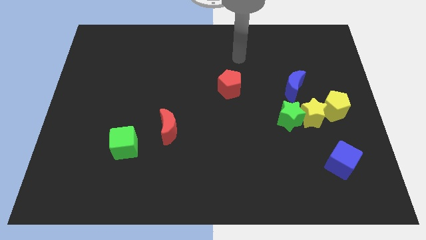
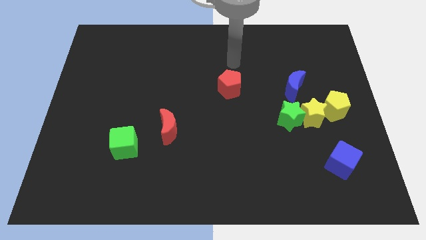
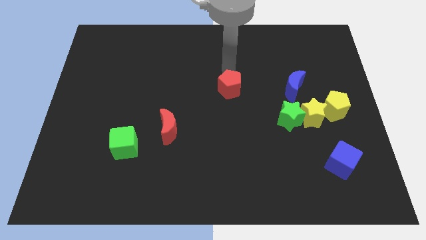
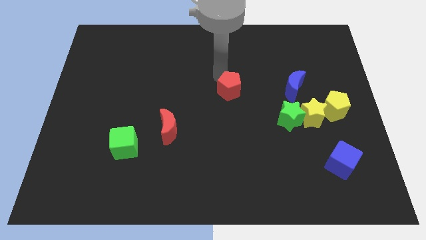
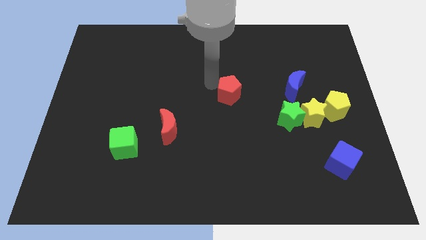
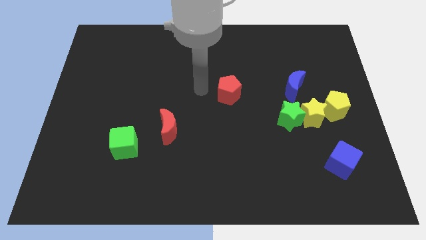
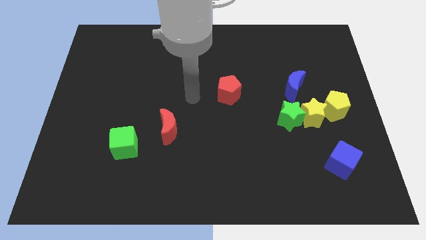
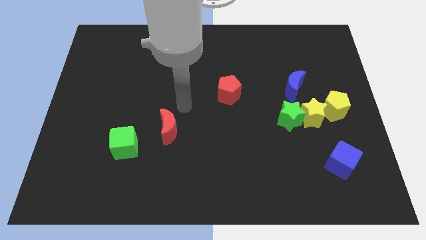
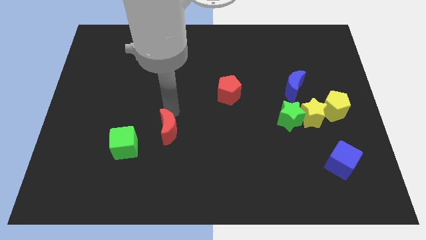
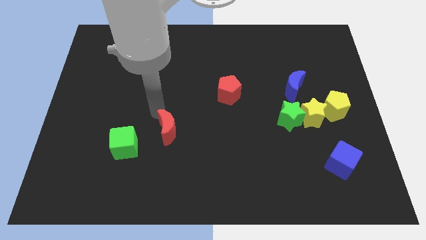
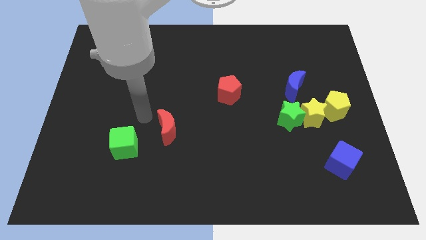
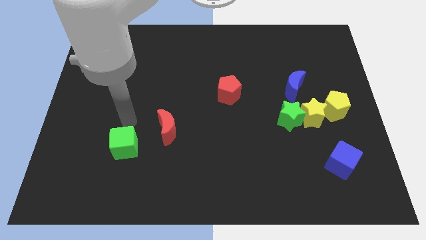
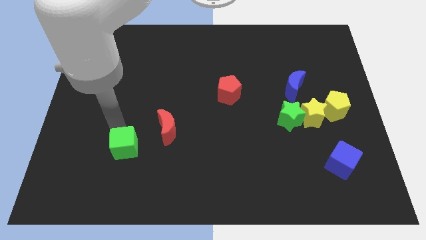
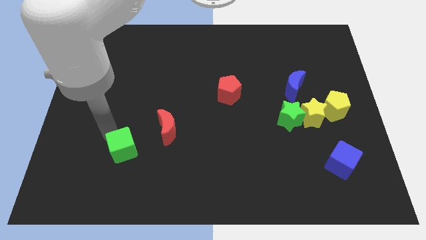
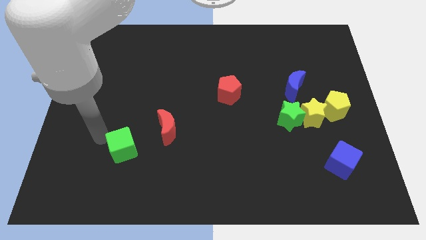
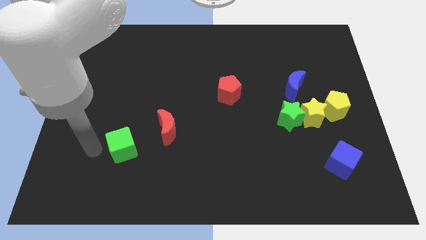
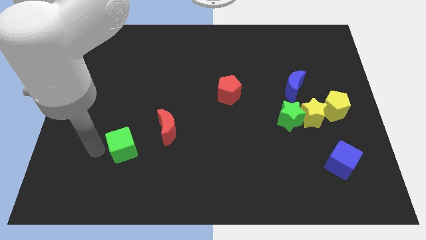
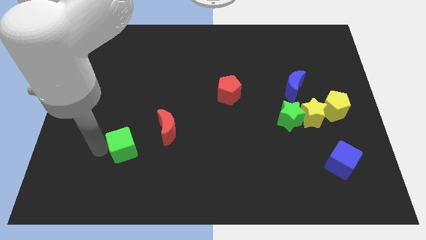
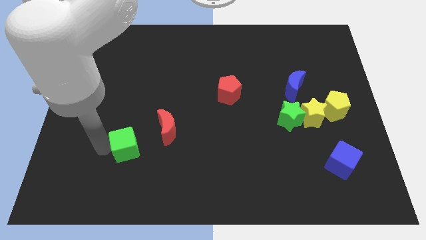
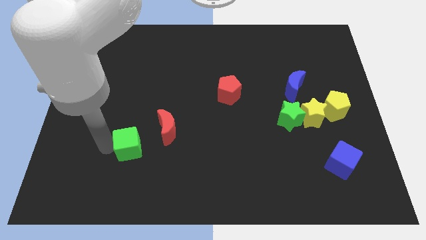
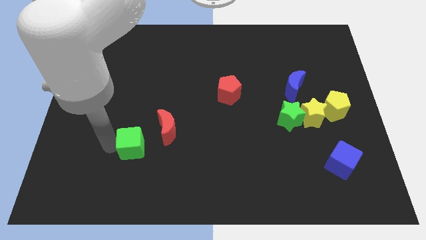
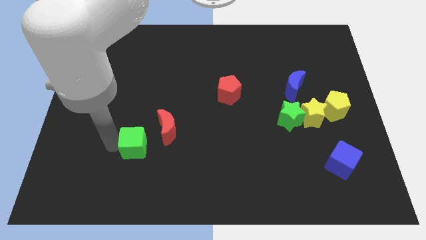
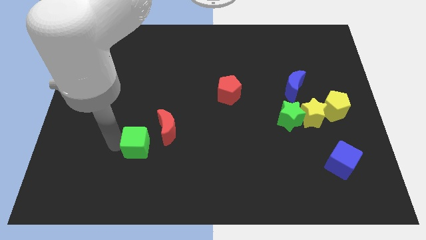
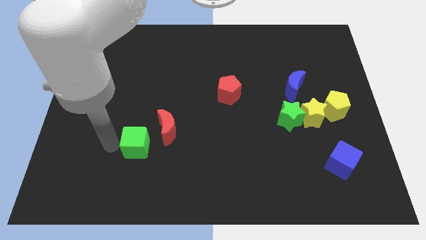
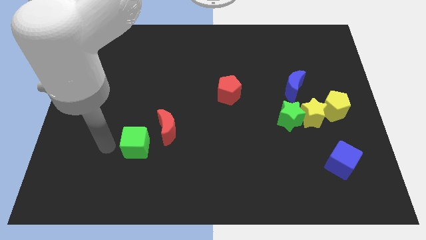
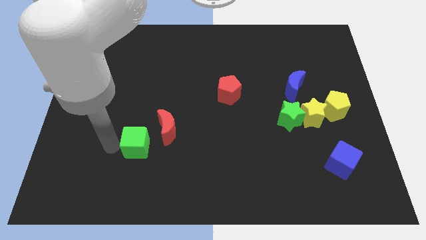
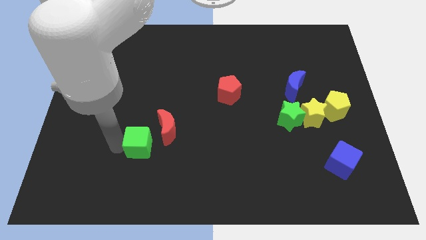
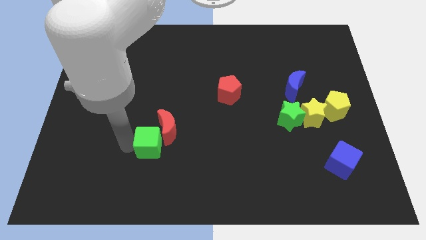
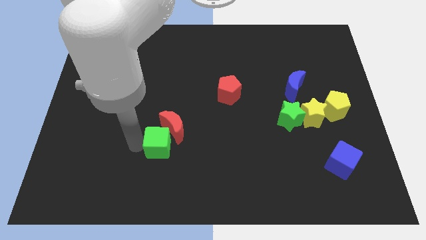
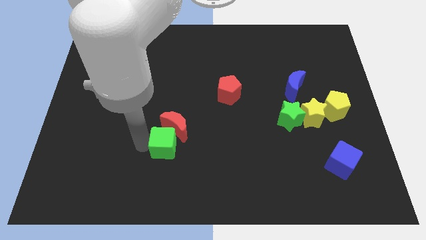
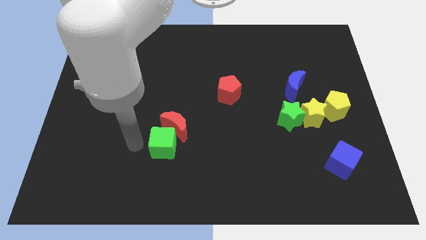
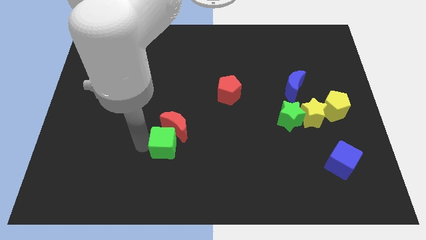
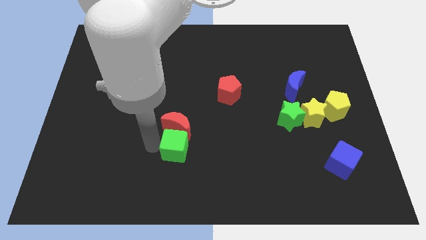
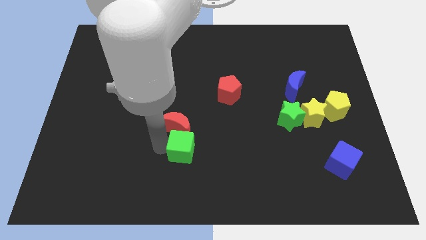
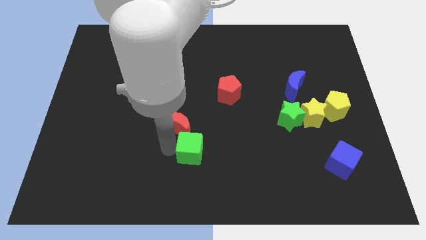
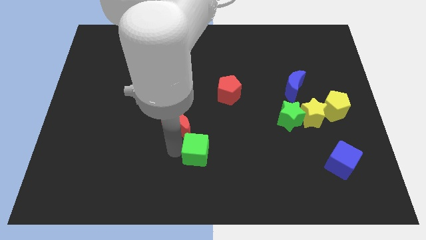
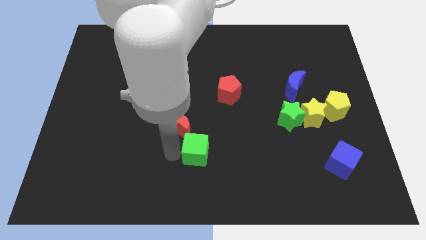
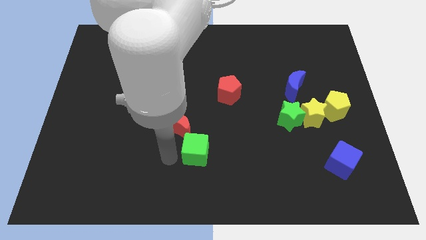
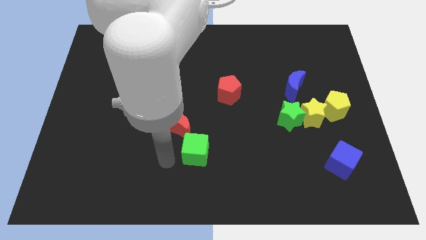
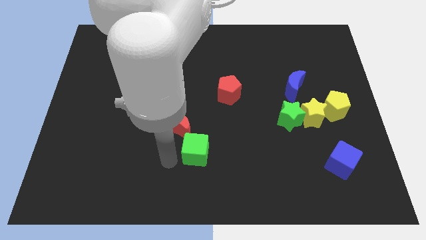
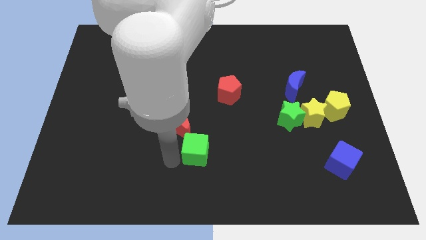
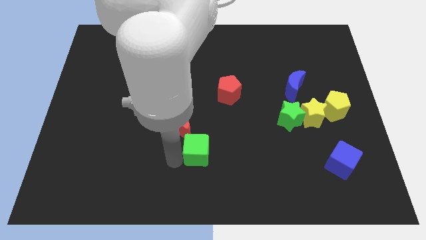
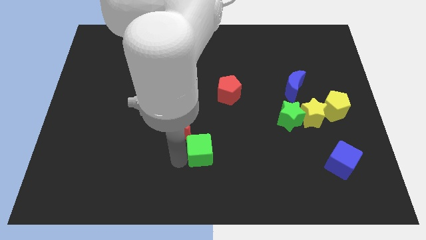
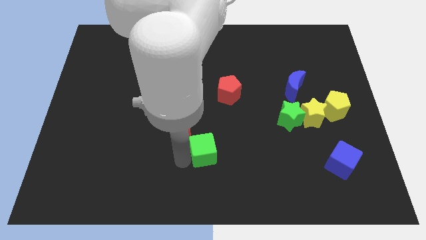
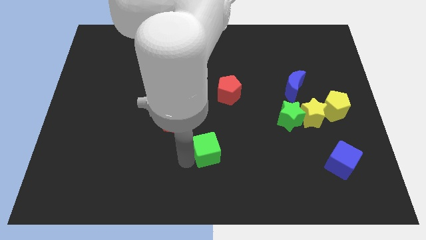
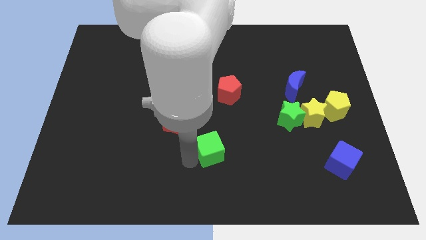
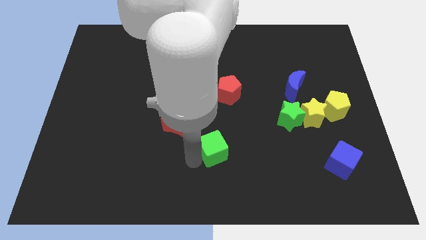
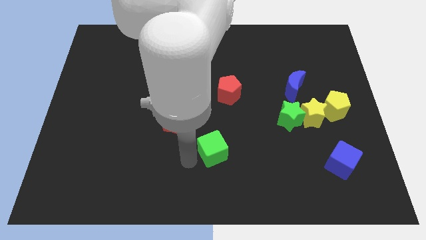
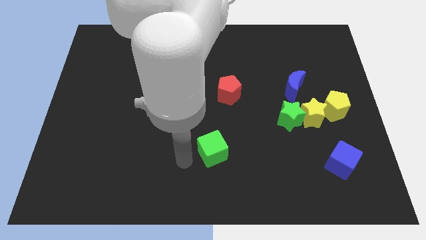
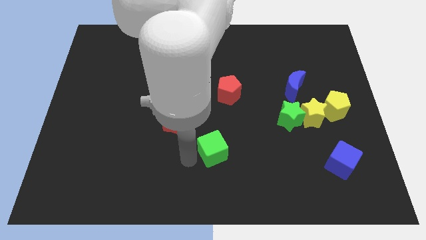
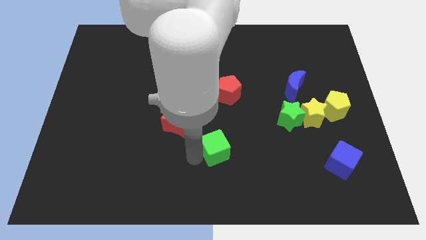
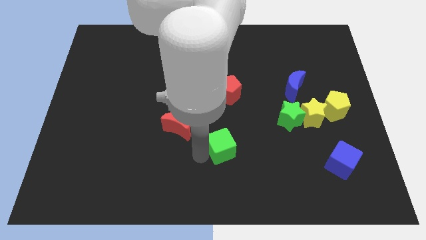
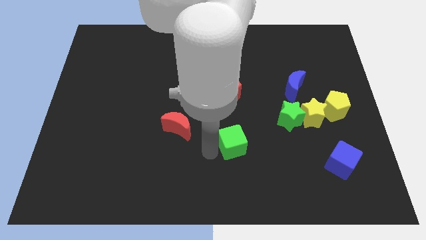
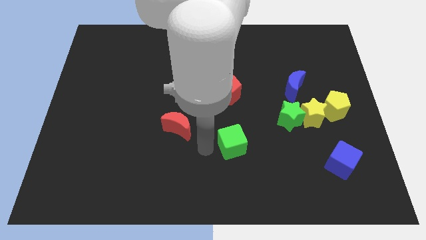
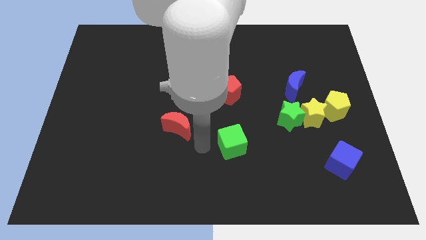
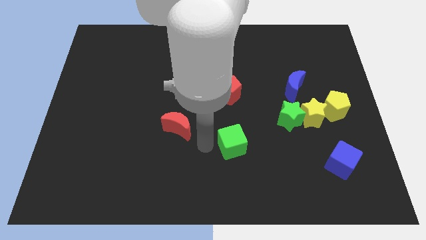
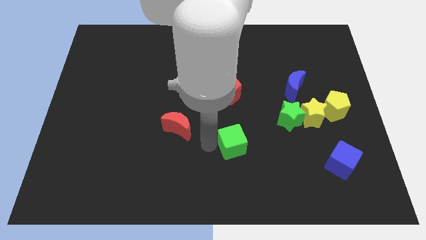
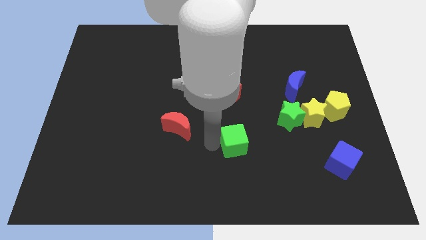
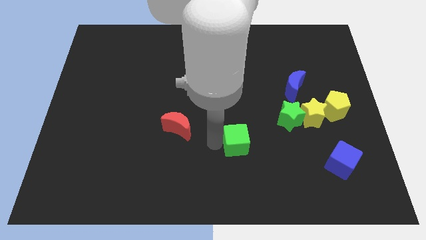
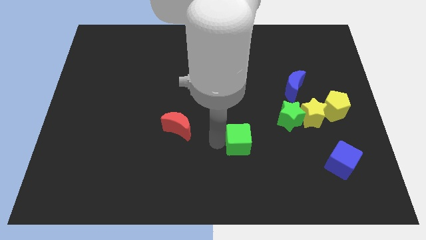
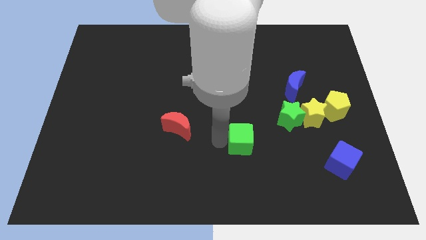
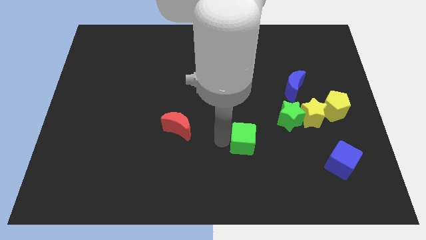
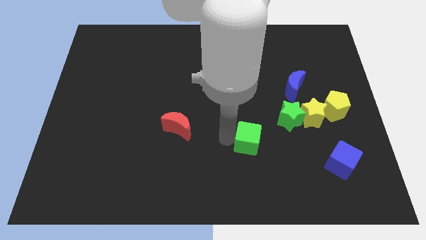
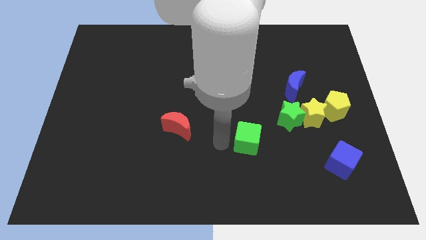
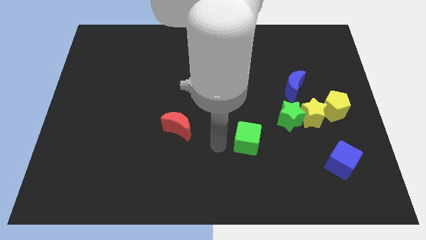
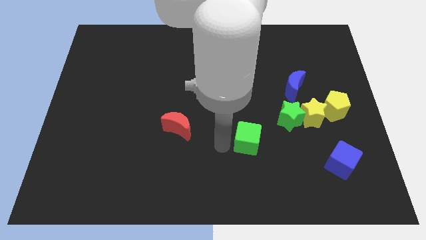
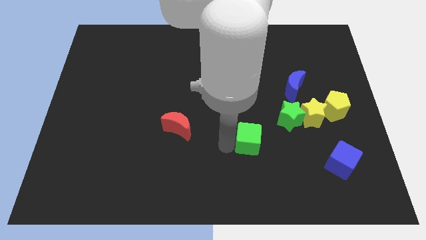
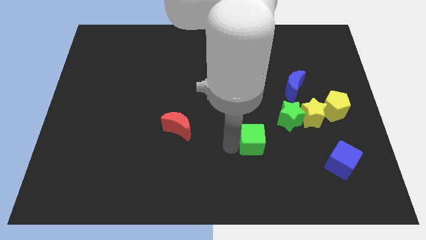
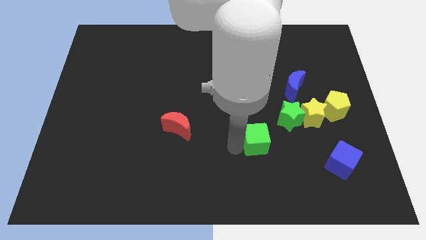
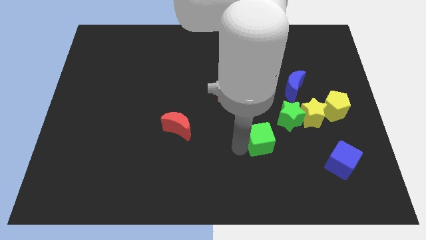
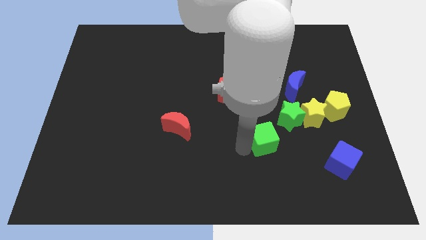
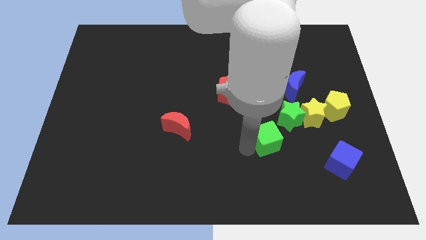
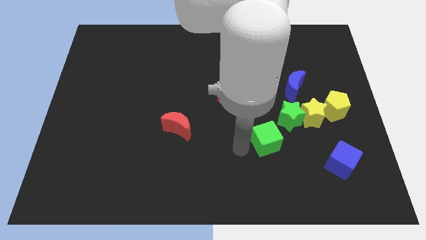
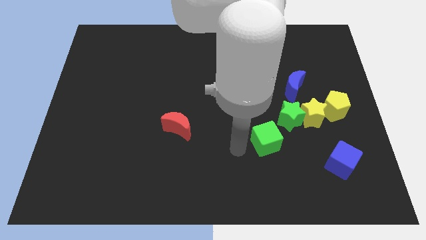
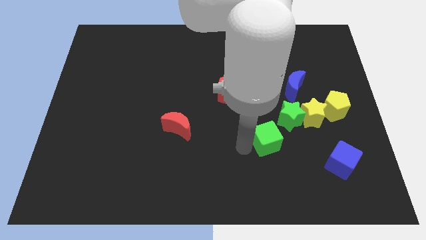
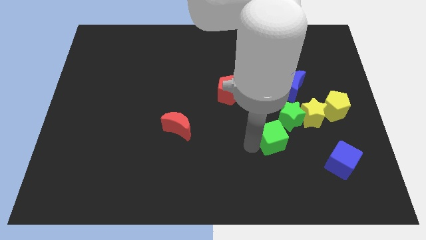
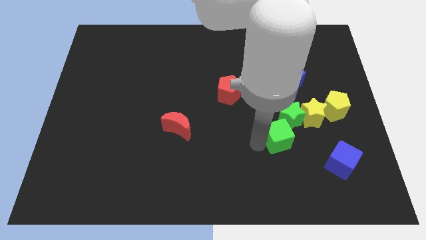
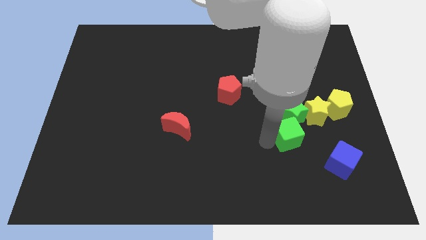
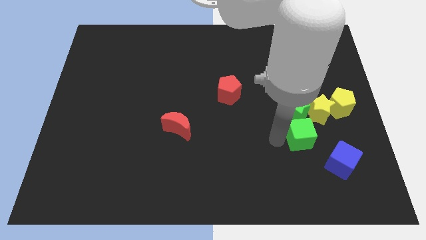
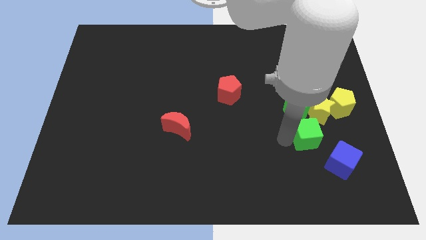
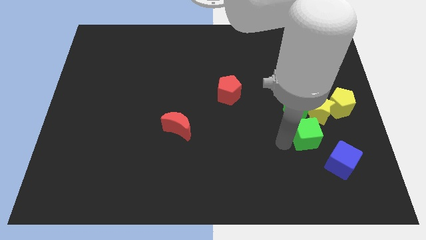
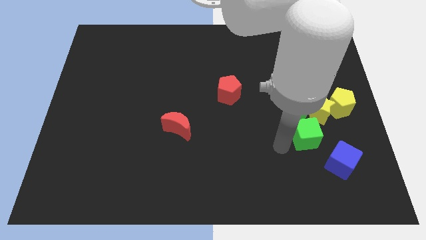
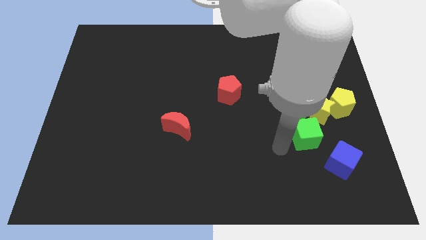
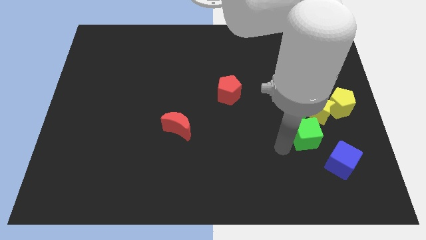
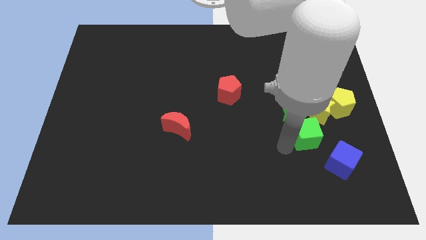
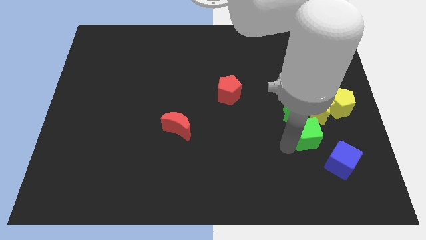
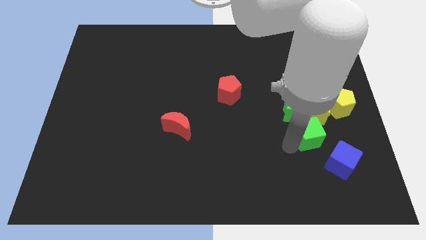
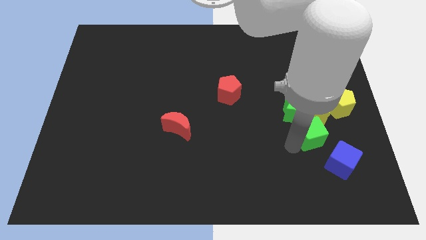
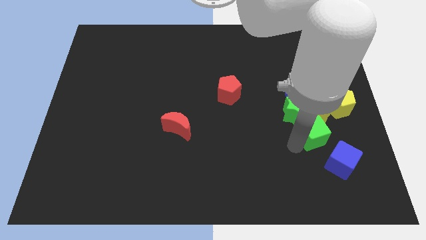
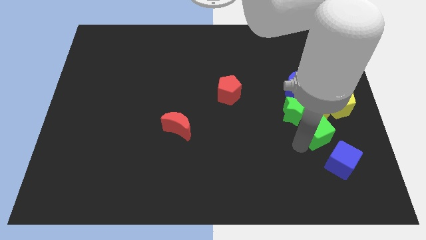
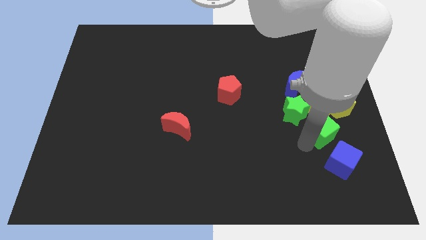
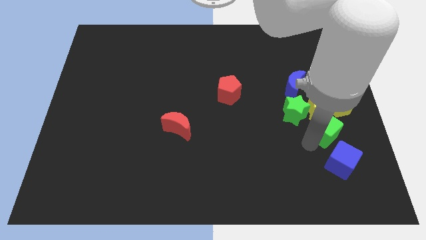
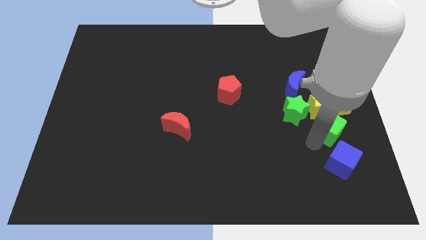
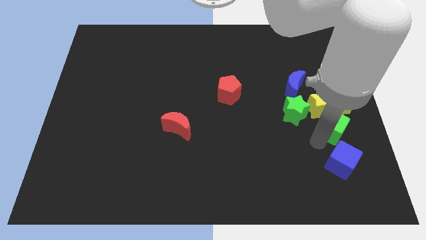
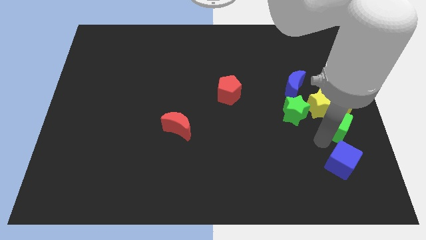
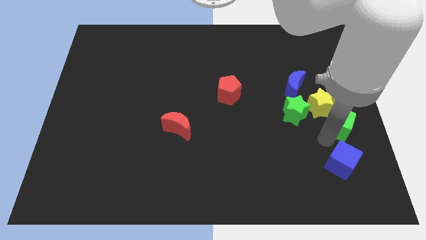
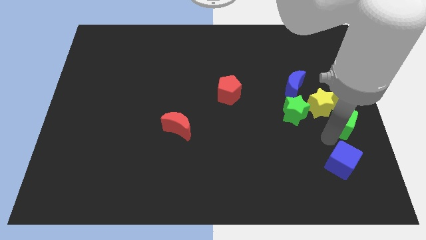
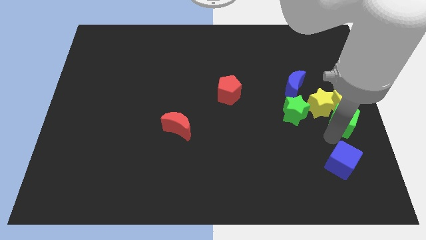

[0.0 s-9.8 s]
slide the green cube next to the yellow pentagon
